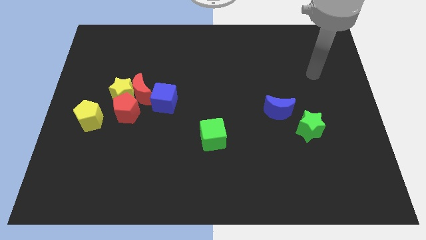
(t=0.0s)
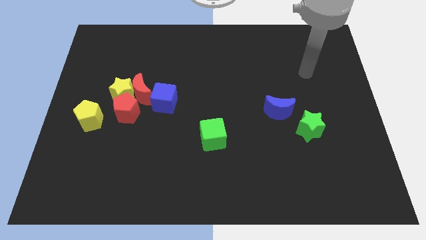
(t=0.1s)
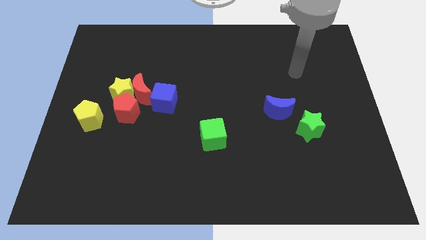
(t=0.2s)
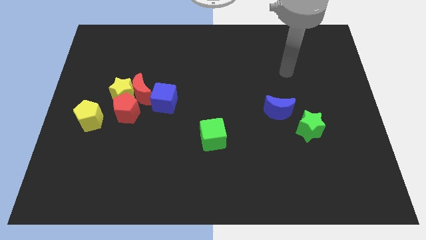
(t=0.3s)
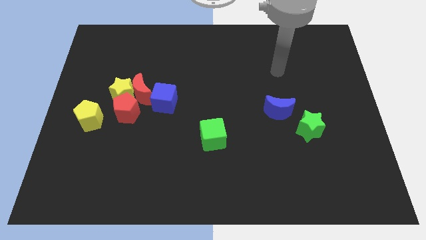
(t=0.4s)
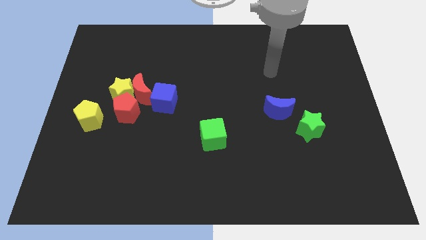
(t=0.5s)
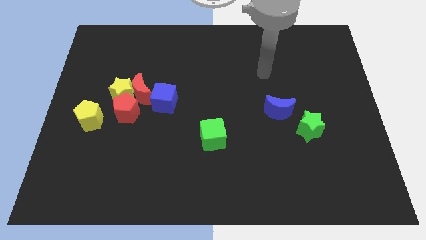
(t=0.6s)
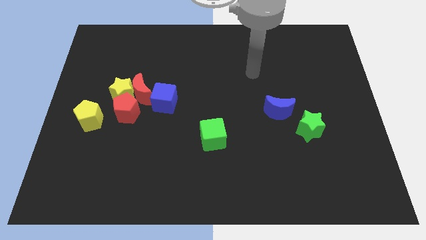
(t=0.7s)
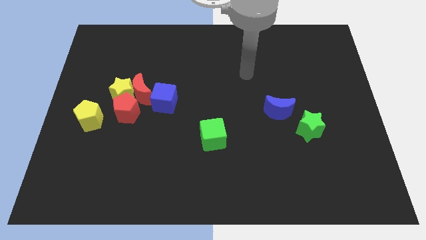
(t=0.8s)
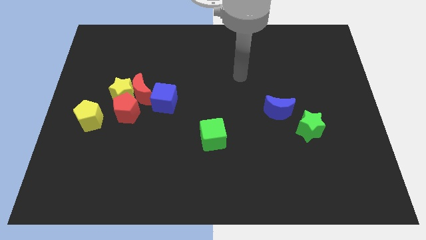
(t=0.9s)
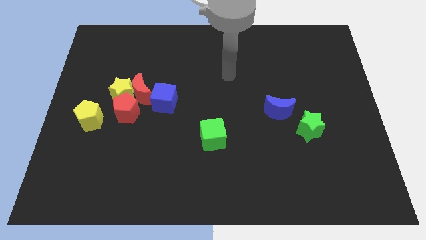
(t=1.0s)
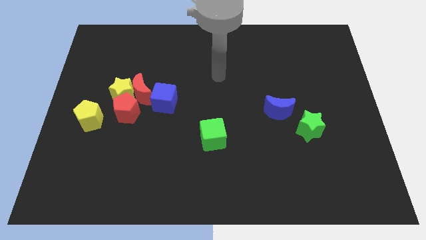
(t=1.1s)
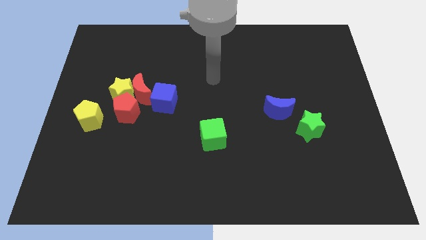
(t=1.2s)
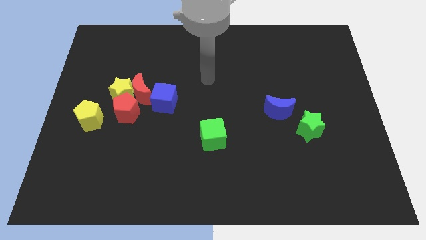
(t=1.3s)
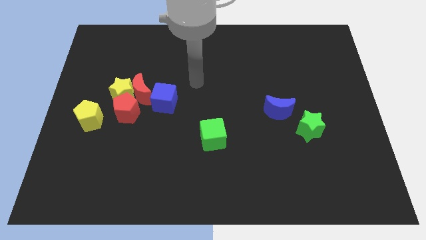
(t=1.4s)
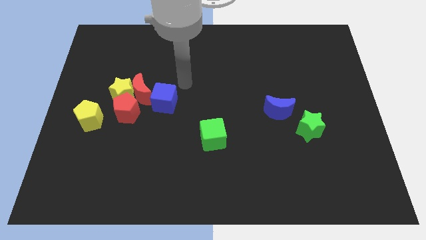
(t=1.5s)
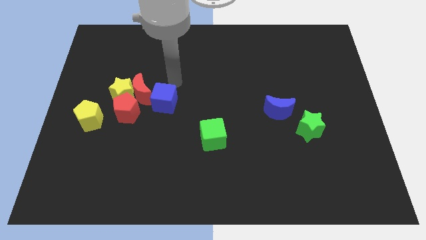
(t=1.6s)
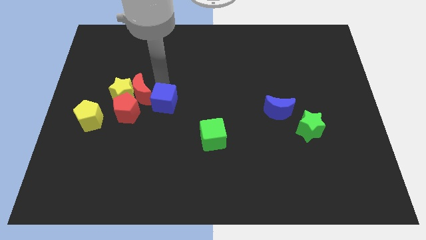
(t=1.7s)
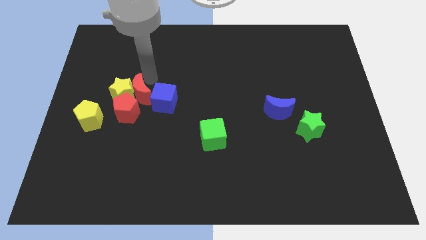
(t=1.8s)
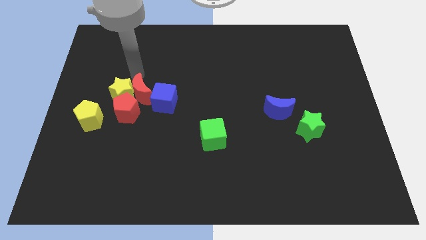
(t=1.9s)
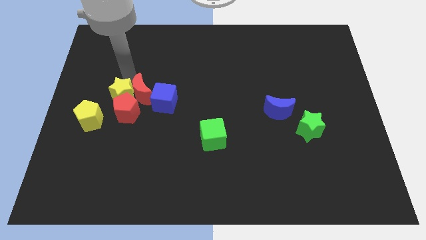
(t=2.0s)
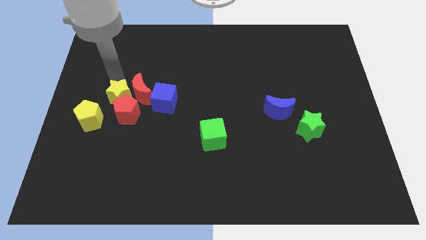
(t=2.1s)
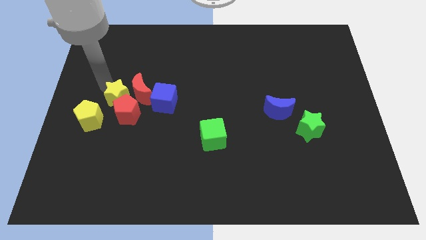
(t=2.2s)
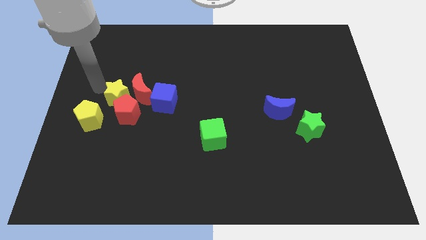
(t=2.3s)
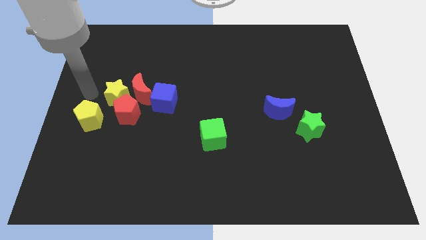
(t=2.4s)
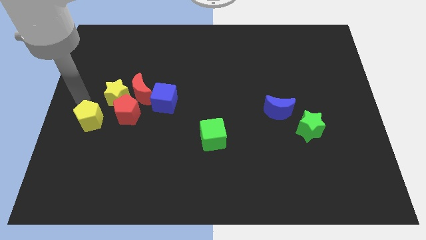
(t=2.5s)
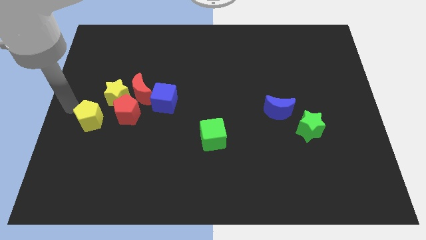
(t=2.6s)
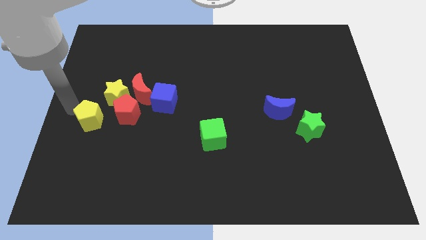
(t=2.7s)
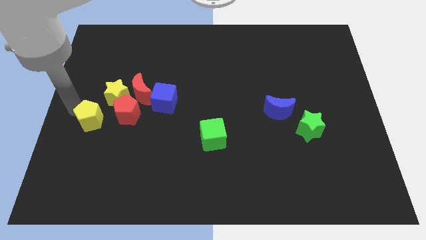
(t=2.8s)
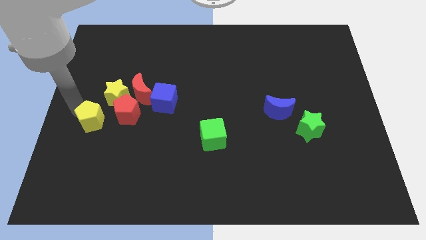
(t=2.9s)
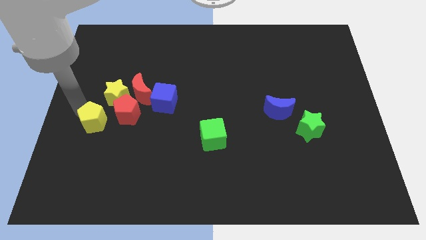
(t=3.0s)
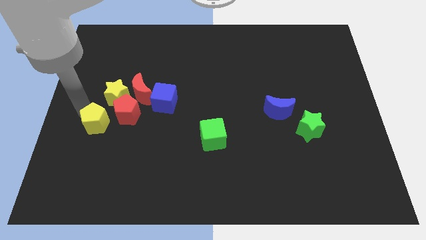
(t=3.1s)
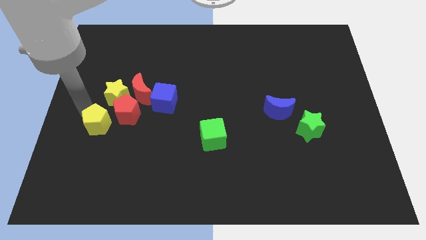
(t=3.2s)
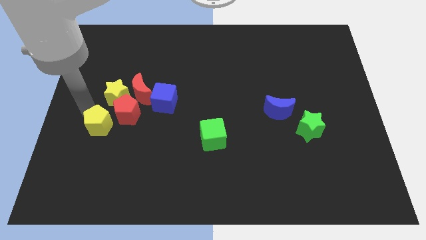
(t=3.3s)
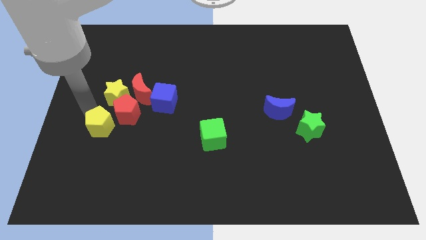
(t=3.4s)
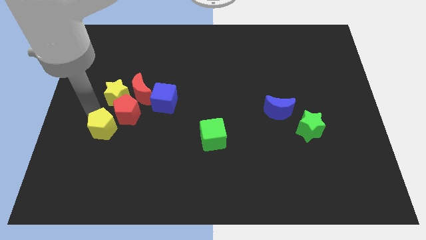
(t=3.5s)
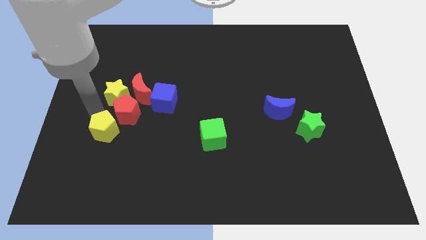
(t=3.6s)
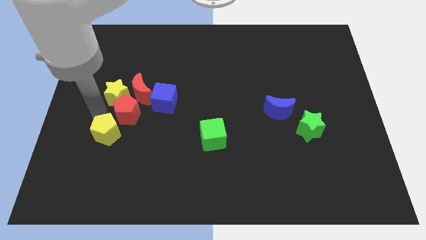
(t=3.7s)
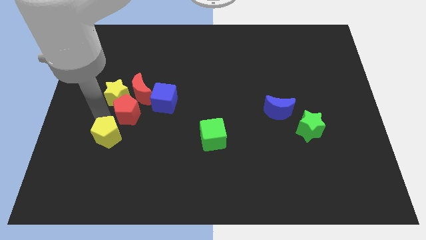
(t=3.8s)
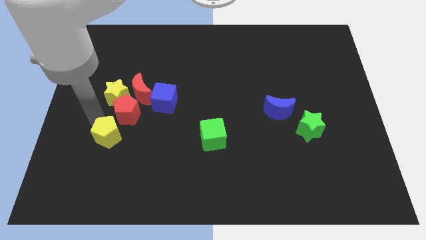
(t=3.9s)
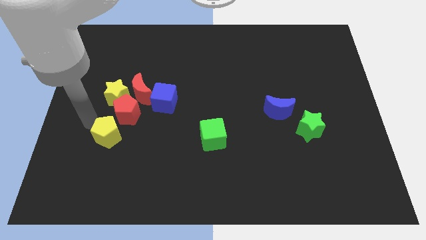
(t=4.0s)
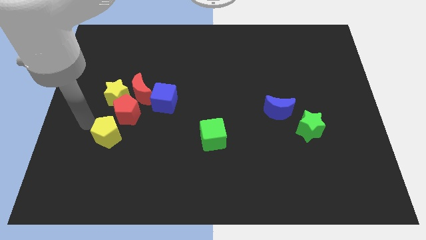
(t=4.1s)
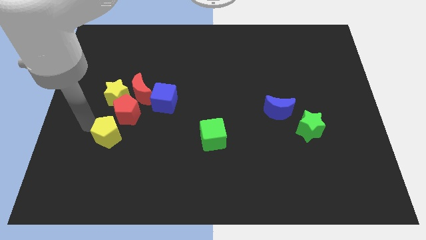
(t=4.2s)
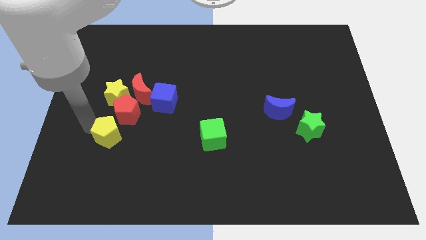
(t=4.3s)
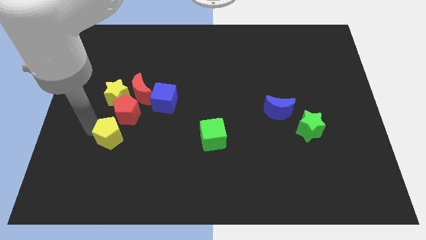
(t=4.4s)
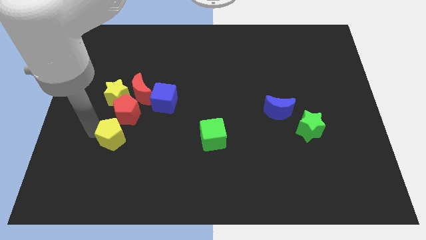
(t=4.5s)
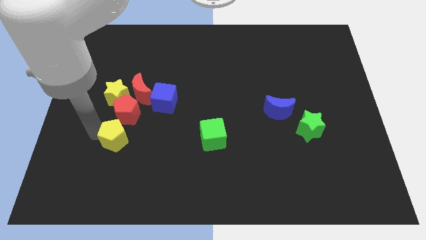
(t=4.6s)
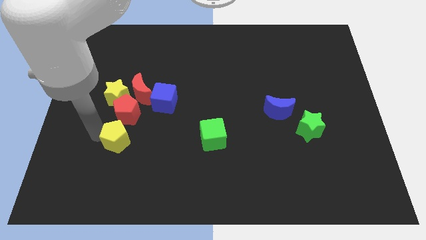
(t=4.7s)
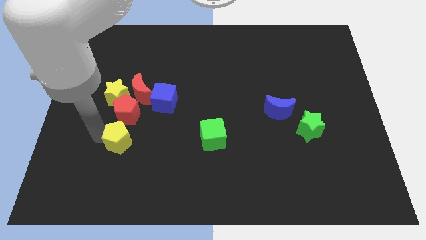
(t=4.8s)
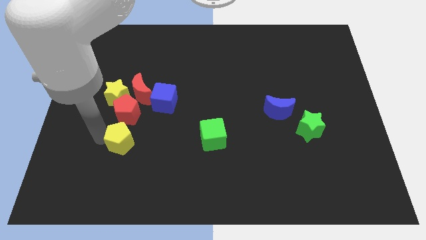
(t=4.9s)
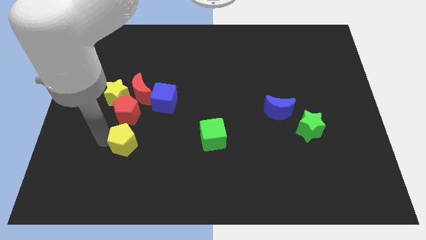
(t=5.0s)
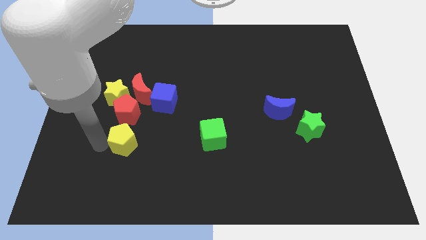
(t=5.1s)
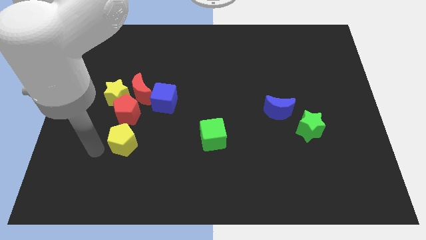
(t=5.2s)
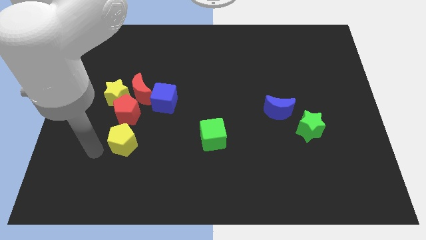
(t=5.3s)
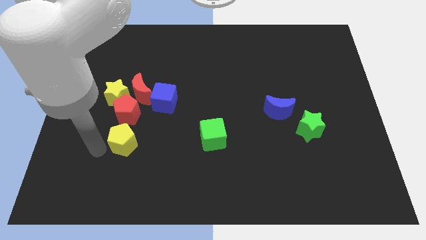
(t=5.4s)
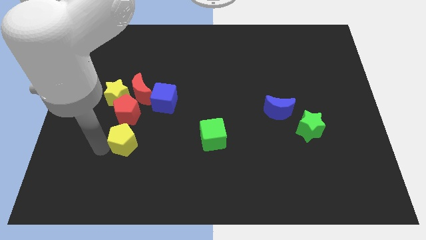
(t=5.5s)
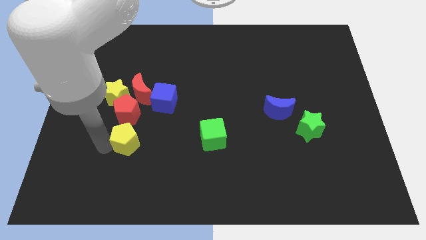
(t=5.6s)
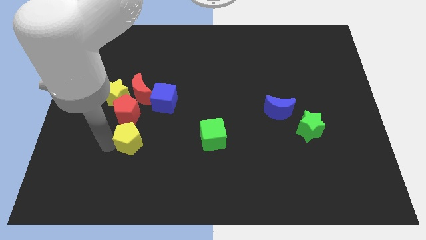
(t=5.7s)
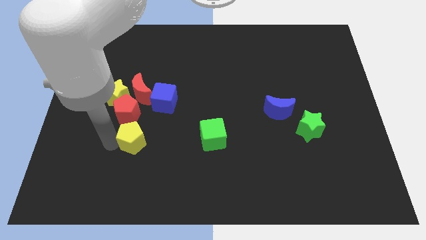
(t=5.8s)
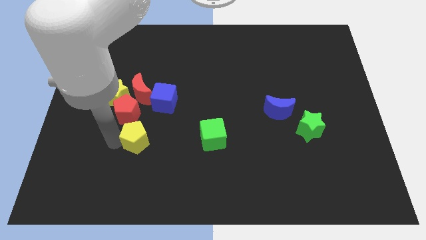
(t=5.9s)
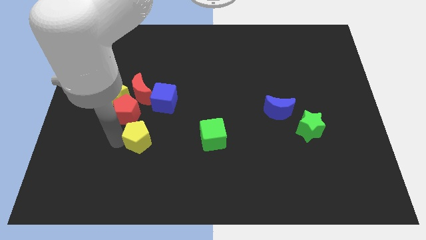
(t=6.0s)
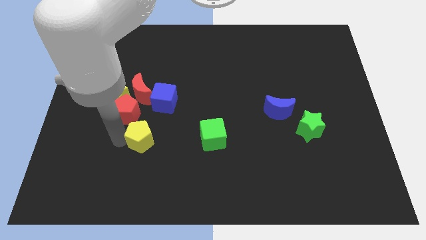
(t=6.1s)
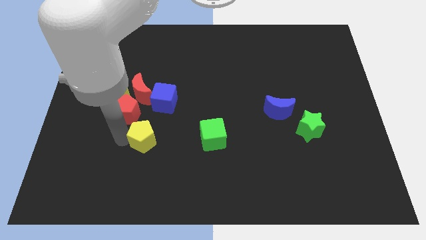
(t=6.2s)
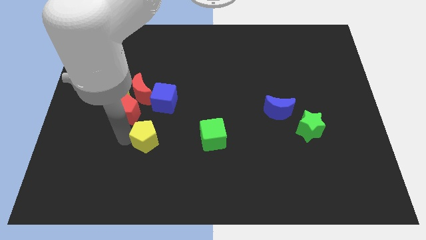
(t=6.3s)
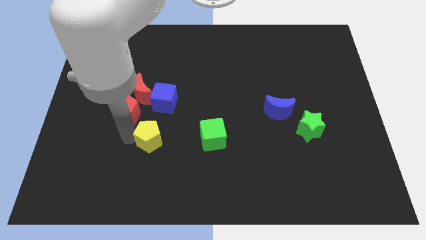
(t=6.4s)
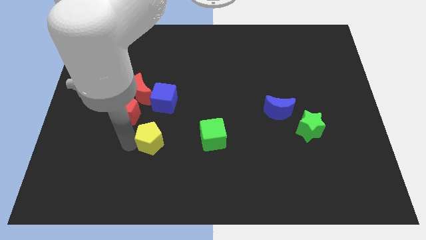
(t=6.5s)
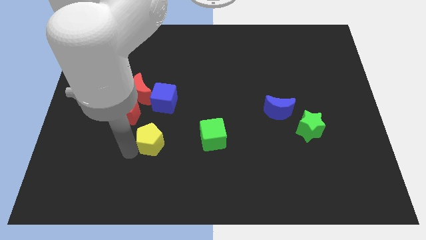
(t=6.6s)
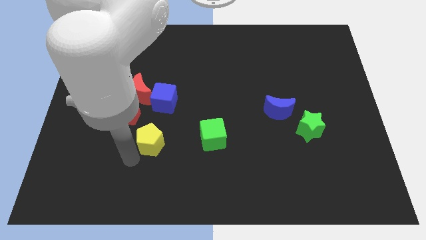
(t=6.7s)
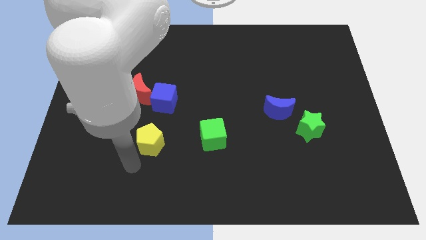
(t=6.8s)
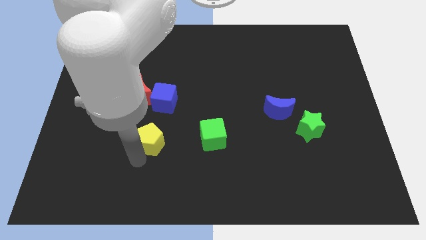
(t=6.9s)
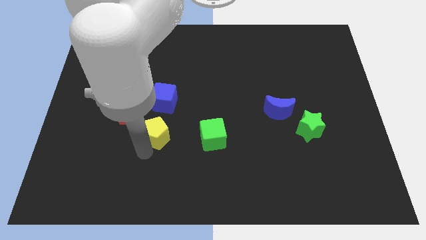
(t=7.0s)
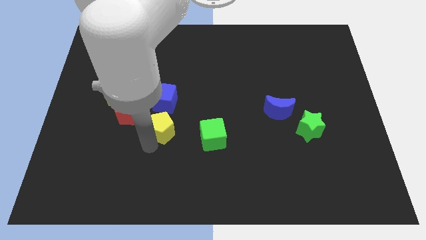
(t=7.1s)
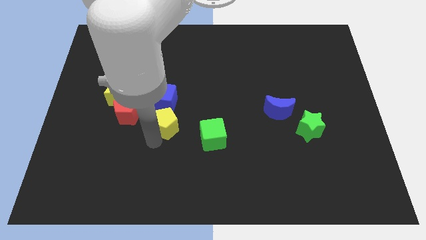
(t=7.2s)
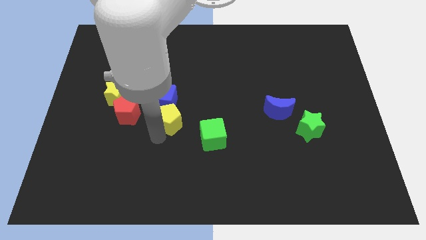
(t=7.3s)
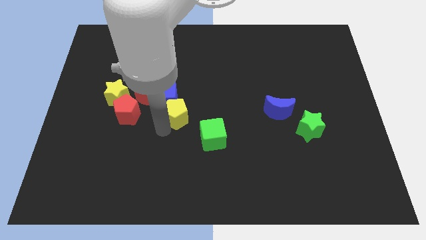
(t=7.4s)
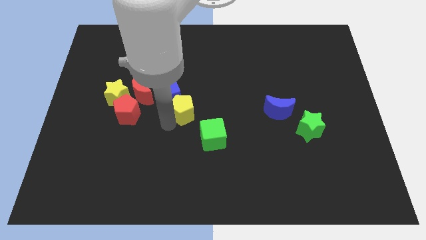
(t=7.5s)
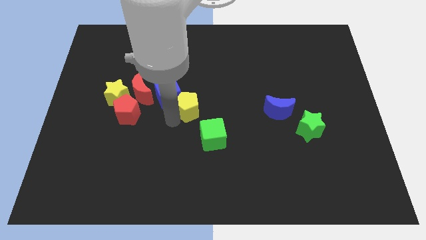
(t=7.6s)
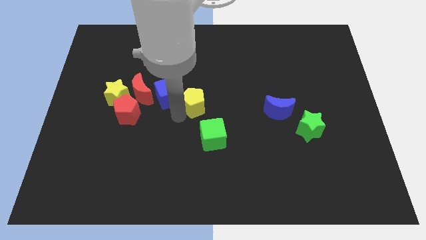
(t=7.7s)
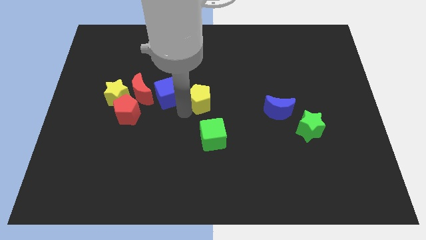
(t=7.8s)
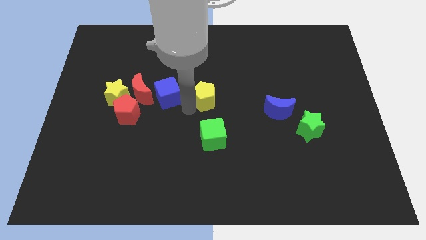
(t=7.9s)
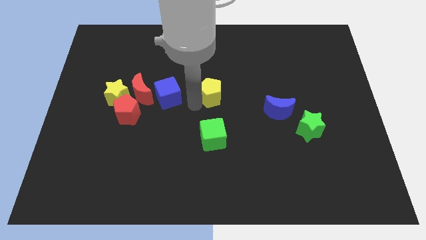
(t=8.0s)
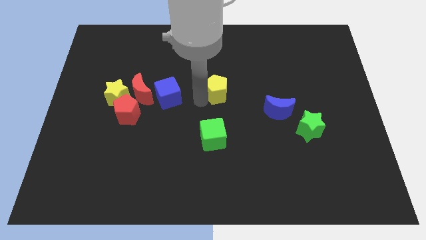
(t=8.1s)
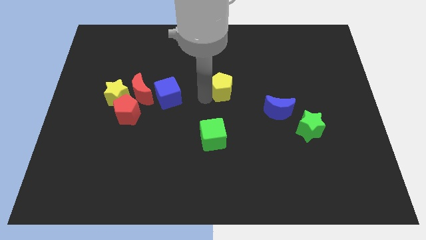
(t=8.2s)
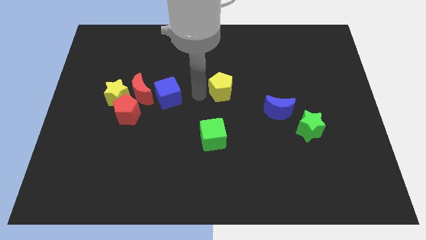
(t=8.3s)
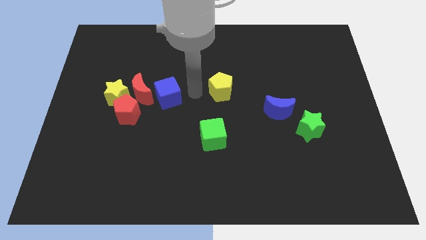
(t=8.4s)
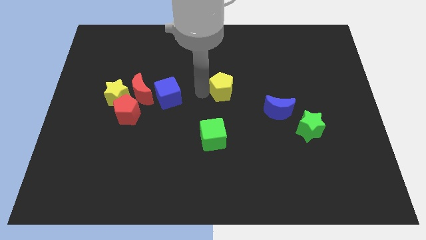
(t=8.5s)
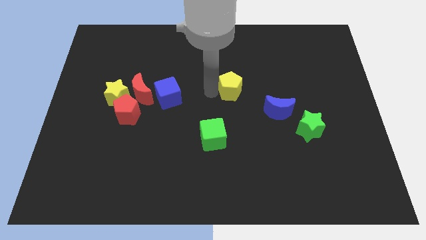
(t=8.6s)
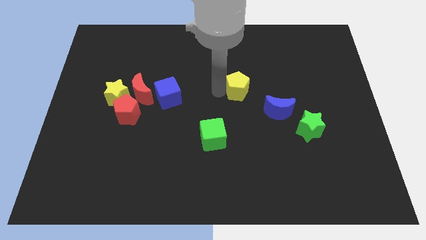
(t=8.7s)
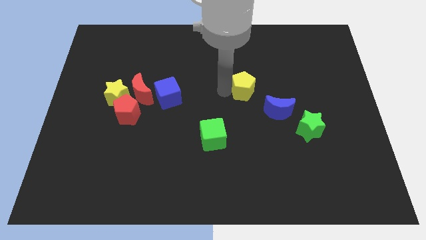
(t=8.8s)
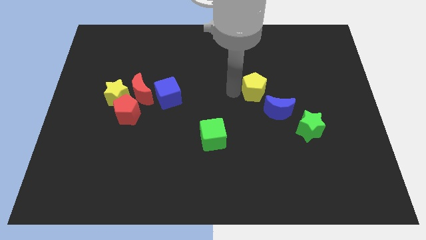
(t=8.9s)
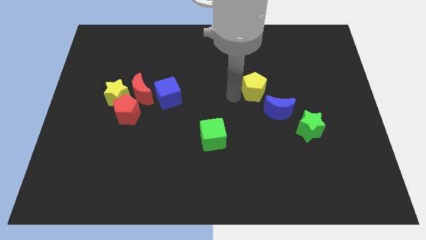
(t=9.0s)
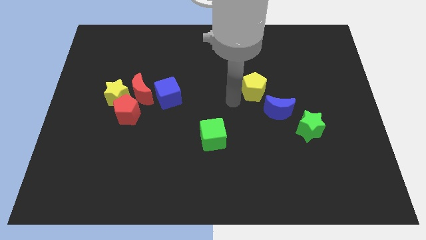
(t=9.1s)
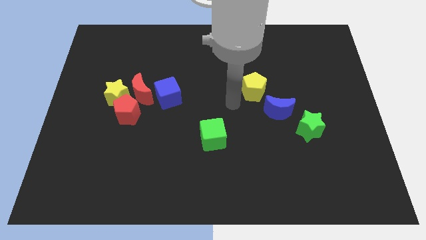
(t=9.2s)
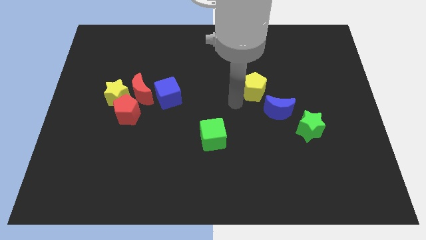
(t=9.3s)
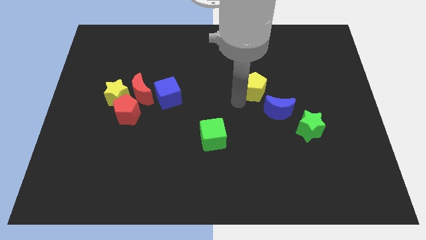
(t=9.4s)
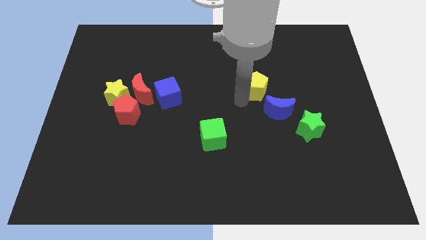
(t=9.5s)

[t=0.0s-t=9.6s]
push the yellow pentagon above the blue moon
